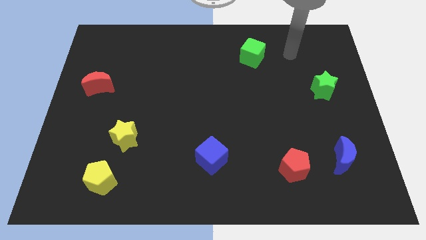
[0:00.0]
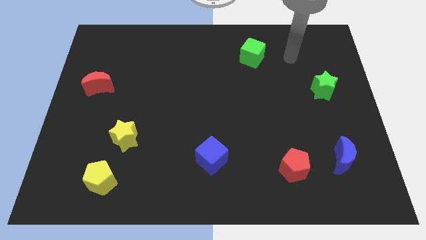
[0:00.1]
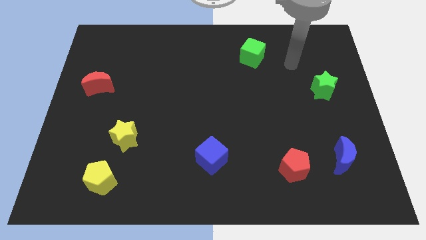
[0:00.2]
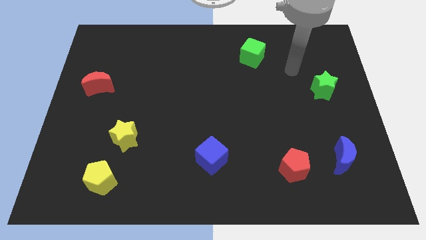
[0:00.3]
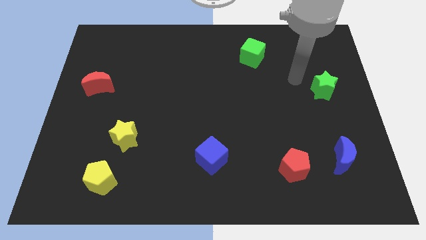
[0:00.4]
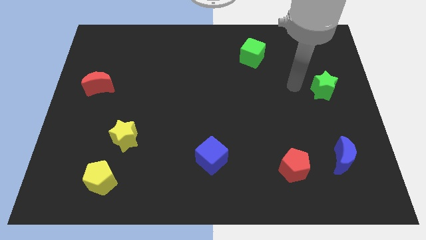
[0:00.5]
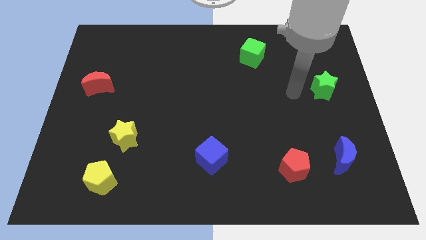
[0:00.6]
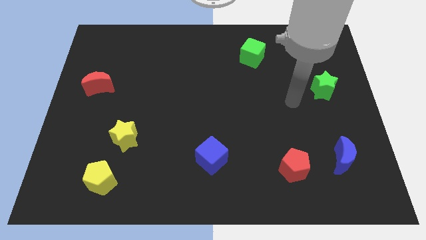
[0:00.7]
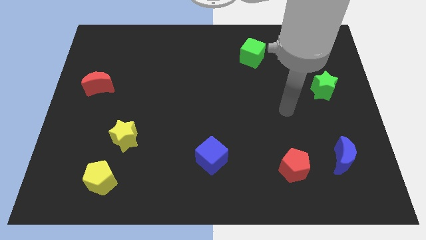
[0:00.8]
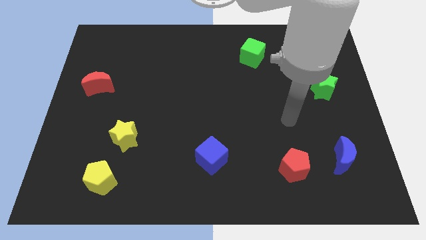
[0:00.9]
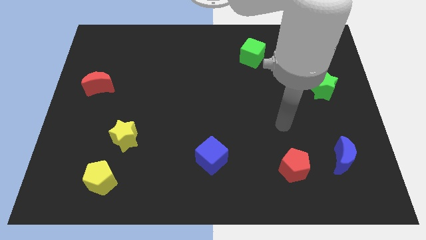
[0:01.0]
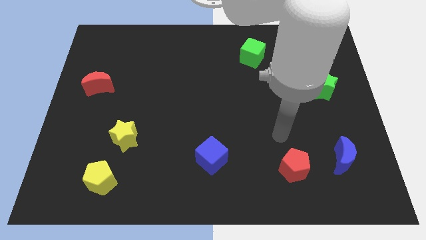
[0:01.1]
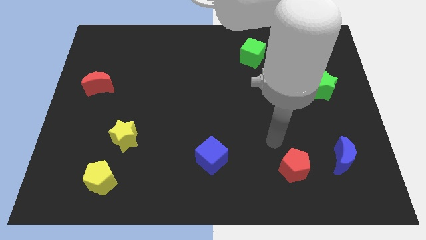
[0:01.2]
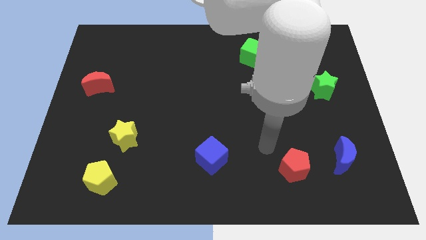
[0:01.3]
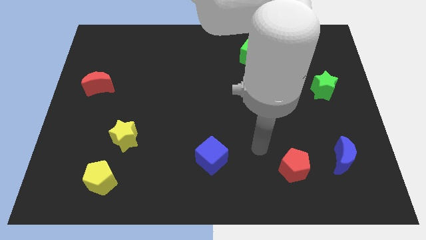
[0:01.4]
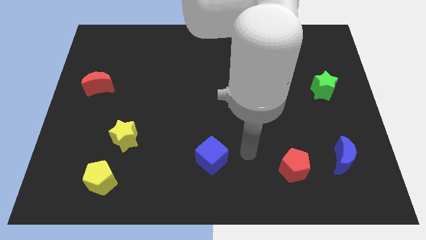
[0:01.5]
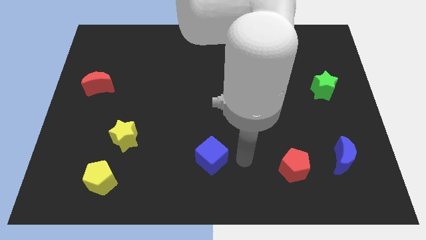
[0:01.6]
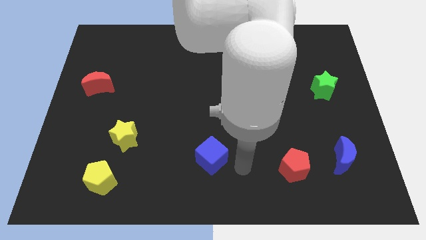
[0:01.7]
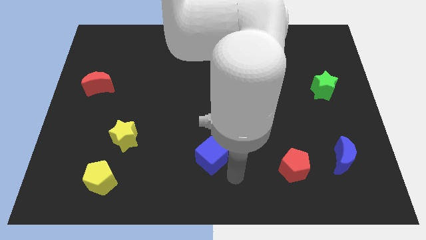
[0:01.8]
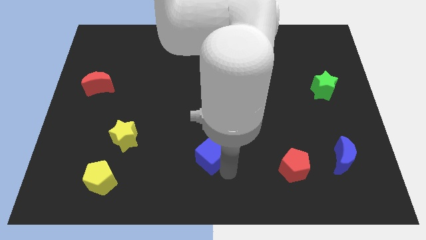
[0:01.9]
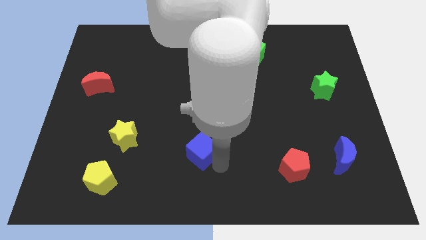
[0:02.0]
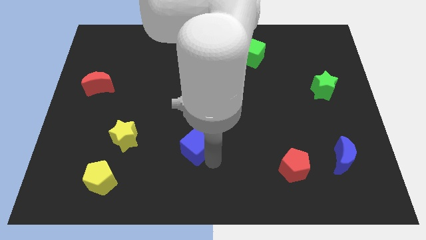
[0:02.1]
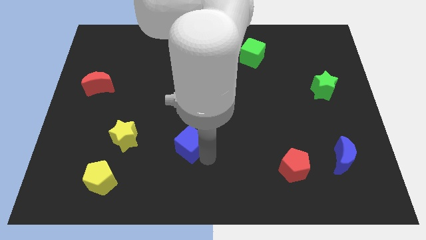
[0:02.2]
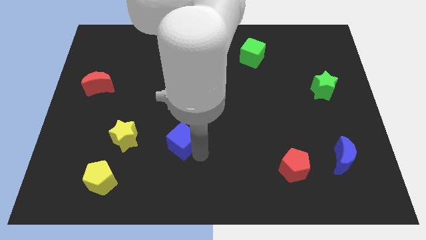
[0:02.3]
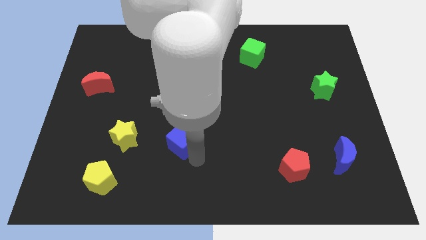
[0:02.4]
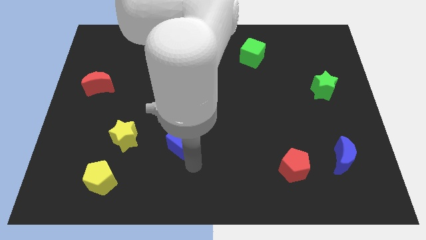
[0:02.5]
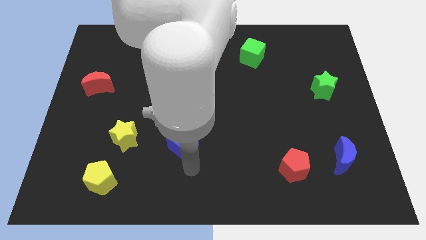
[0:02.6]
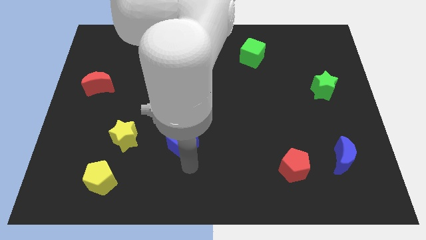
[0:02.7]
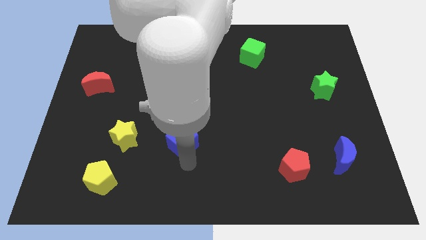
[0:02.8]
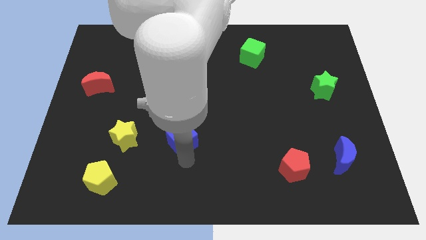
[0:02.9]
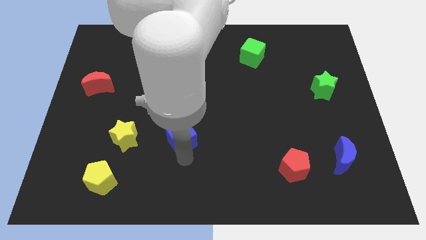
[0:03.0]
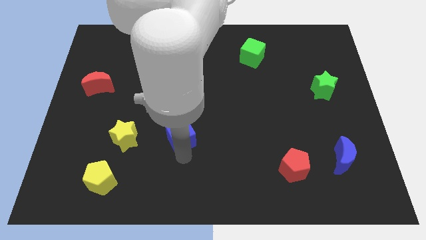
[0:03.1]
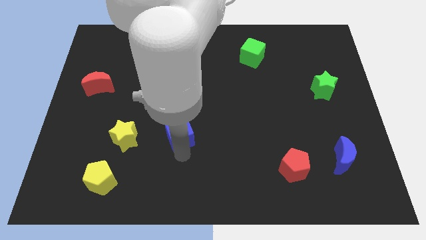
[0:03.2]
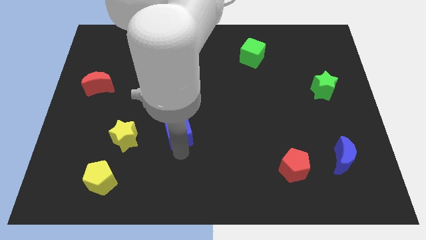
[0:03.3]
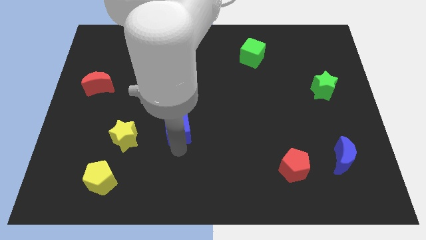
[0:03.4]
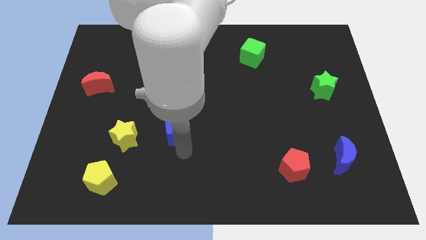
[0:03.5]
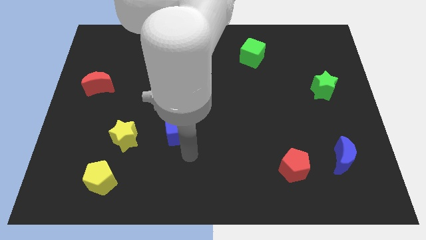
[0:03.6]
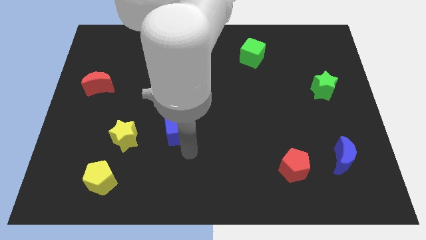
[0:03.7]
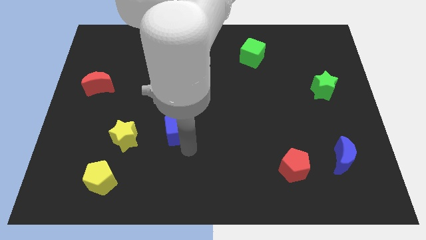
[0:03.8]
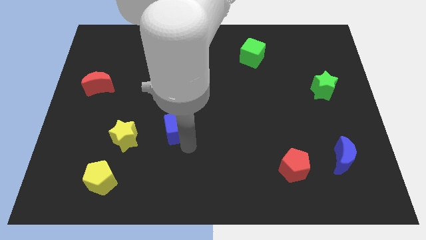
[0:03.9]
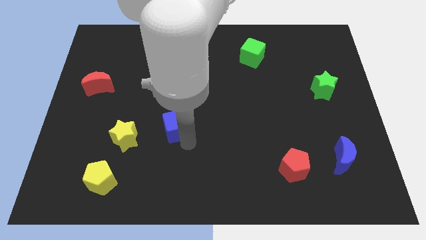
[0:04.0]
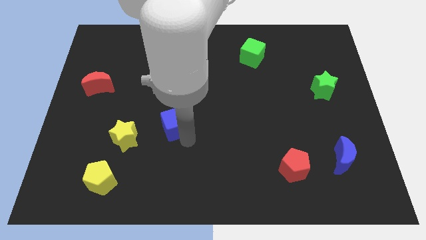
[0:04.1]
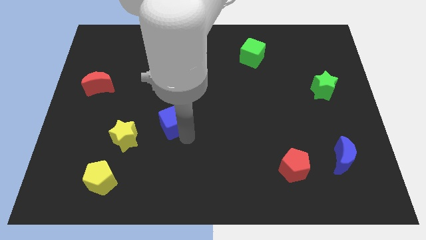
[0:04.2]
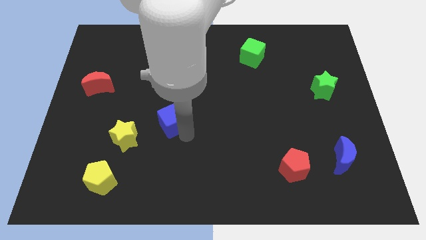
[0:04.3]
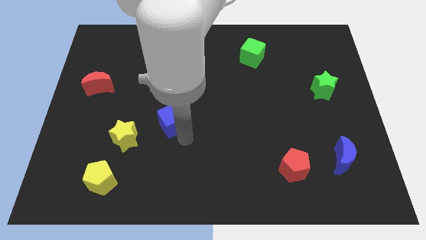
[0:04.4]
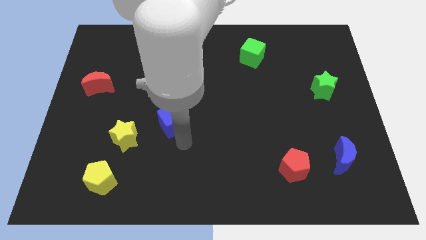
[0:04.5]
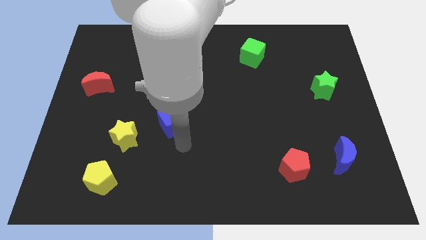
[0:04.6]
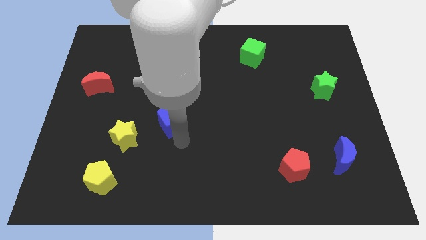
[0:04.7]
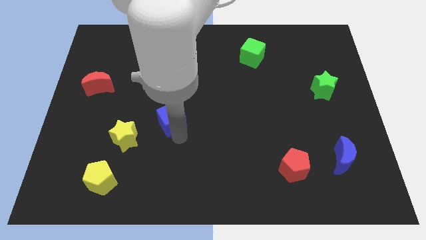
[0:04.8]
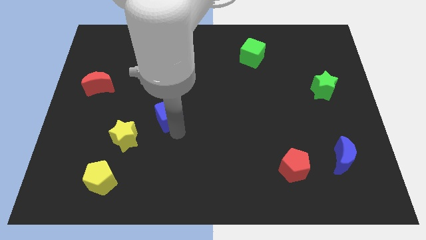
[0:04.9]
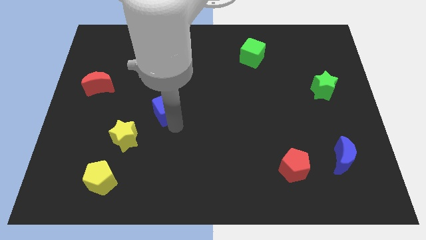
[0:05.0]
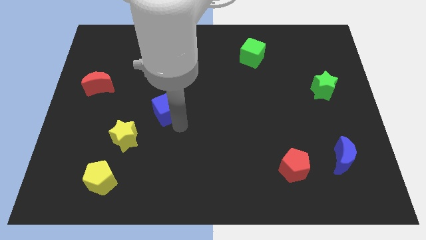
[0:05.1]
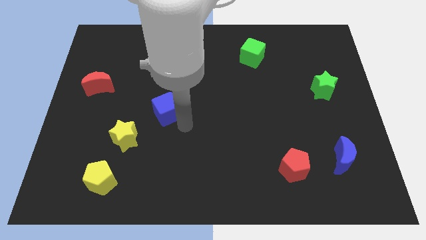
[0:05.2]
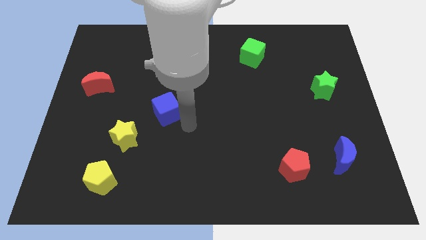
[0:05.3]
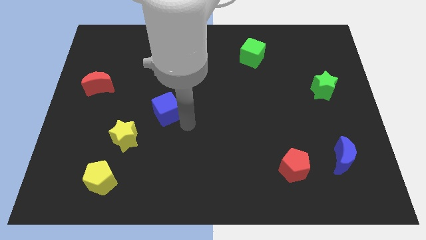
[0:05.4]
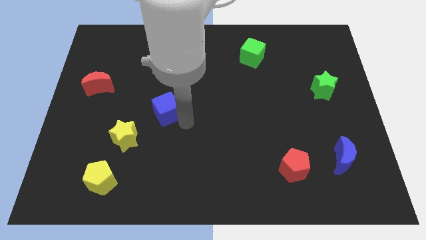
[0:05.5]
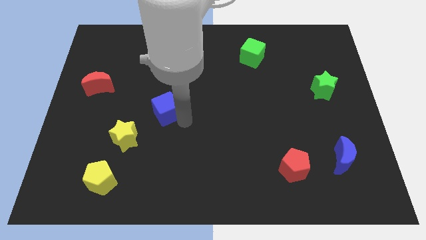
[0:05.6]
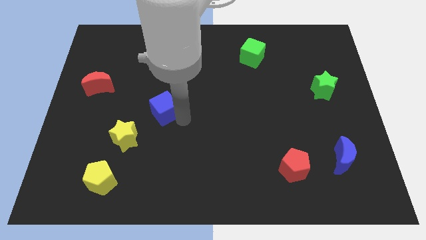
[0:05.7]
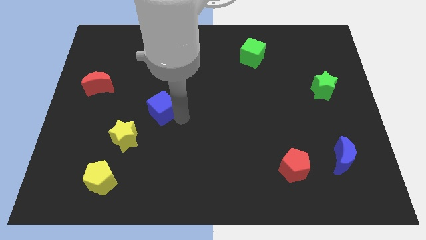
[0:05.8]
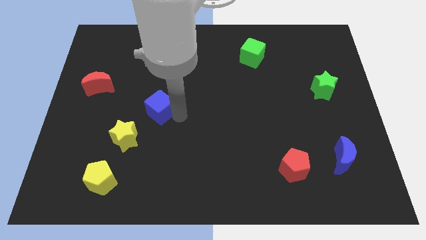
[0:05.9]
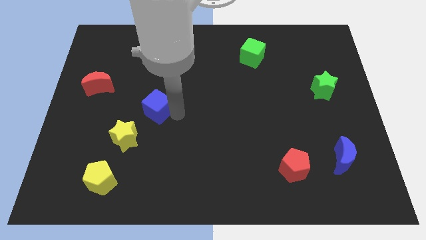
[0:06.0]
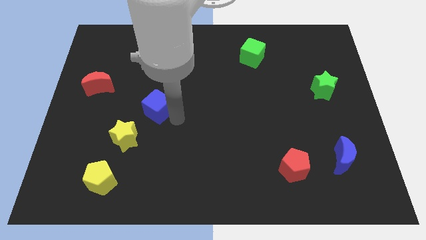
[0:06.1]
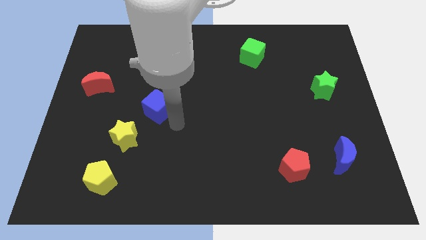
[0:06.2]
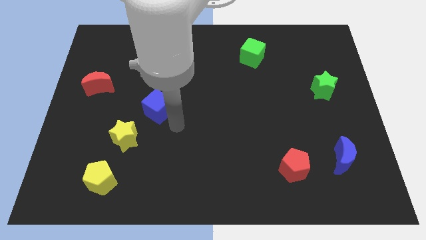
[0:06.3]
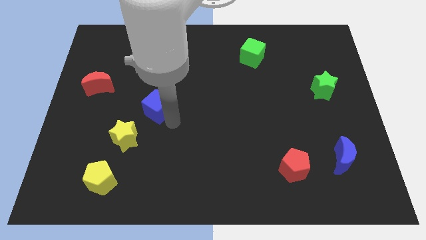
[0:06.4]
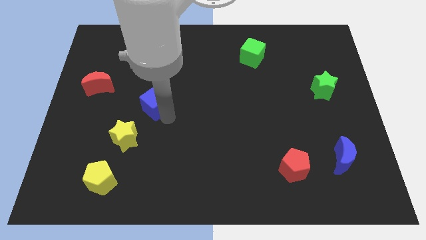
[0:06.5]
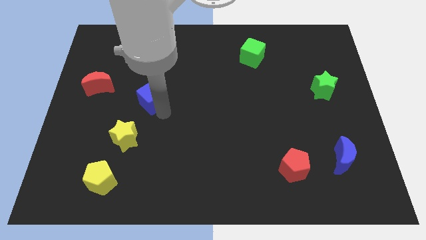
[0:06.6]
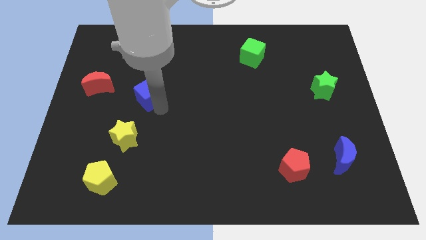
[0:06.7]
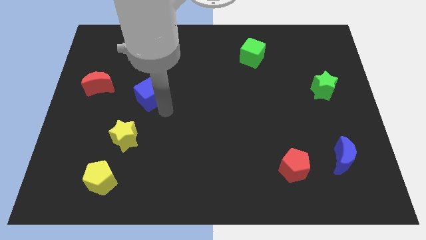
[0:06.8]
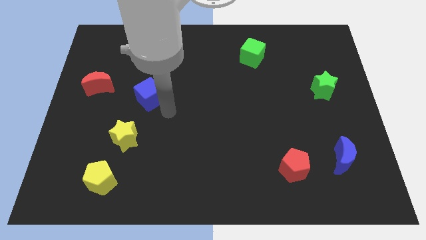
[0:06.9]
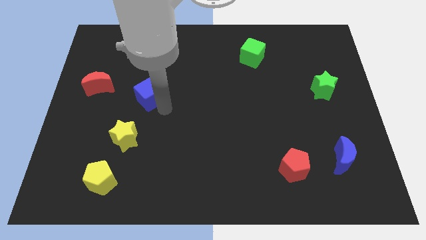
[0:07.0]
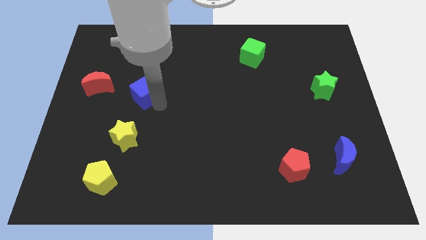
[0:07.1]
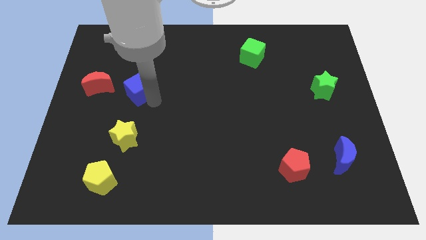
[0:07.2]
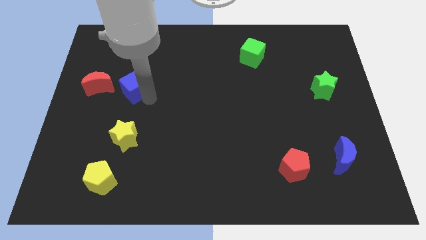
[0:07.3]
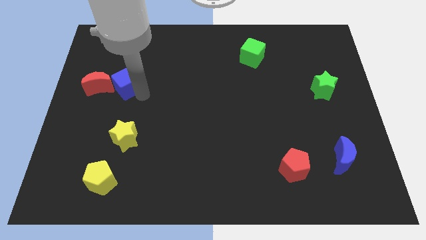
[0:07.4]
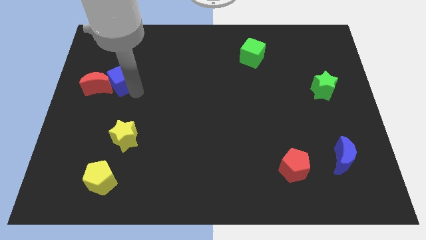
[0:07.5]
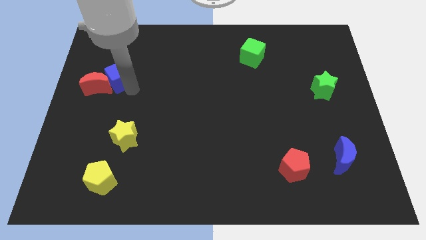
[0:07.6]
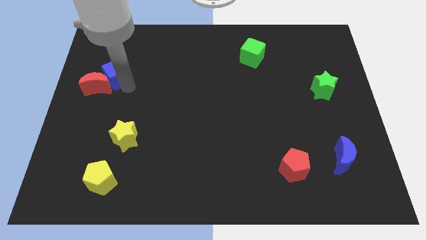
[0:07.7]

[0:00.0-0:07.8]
put the blue cube above the red moon
